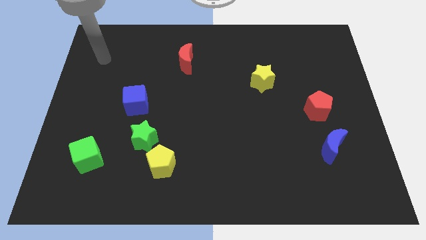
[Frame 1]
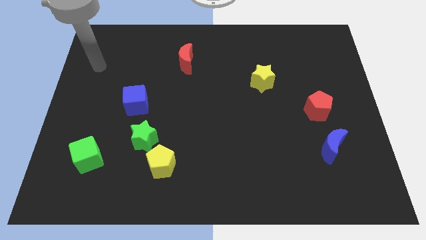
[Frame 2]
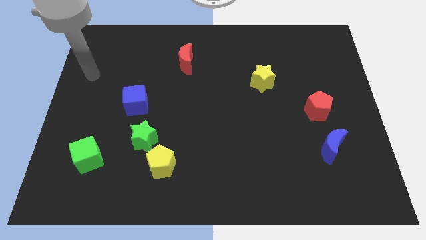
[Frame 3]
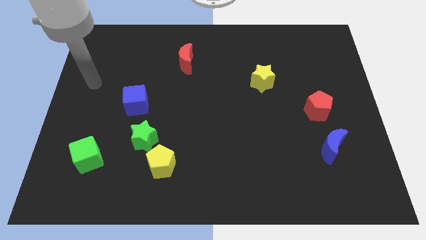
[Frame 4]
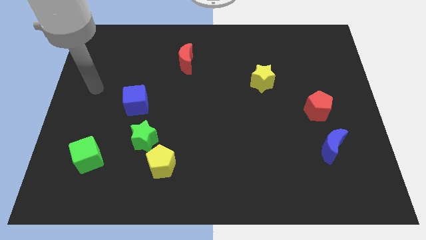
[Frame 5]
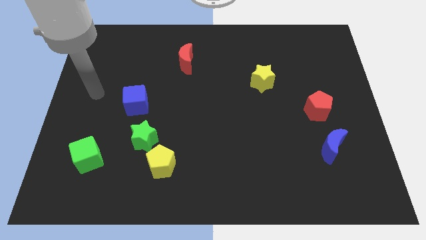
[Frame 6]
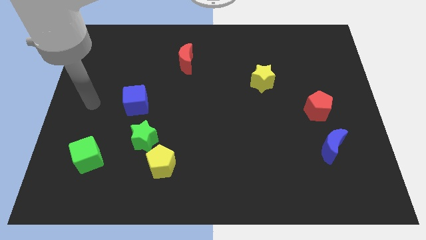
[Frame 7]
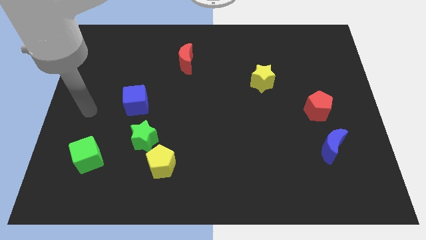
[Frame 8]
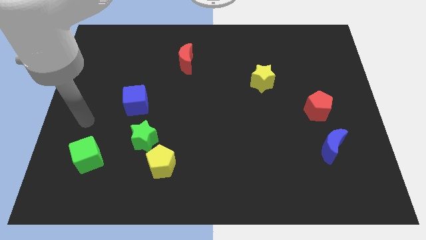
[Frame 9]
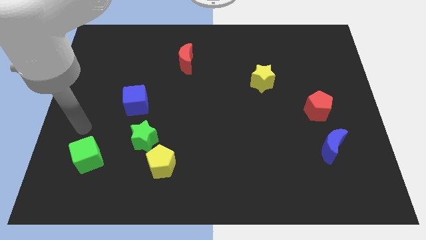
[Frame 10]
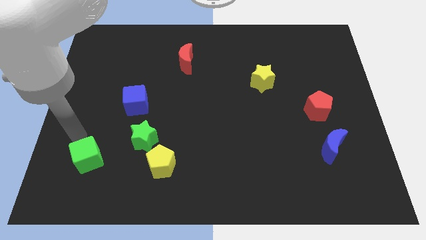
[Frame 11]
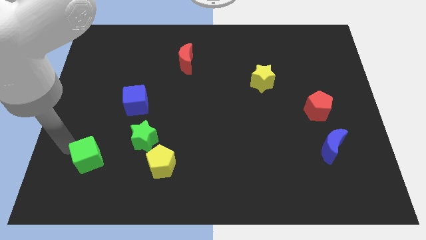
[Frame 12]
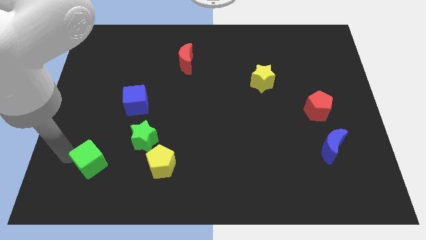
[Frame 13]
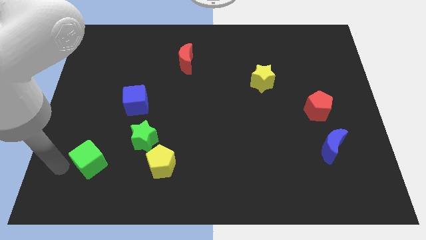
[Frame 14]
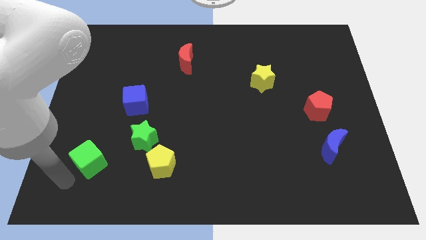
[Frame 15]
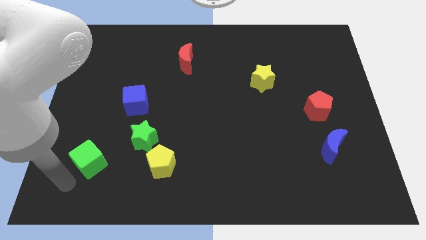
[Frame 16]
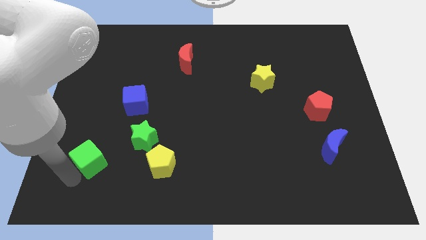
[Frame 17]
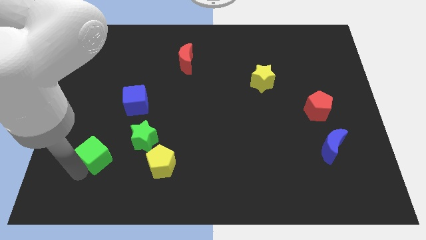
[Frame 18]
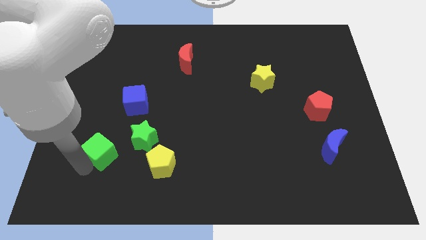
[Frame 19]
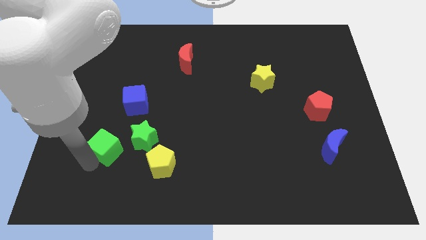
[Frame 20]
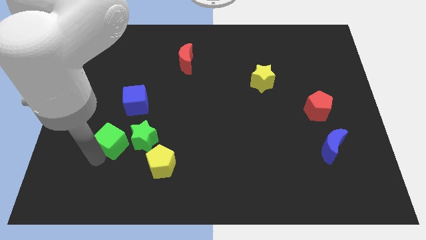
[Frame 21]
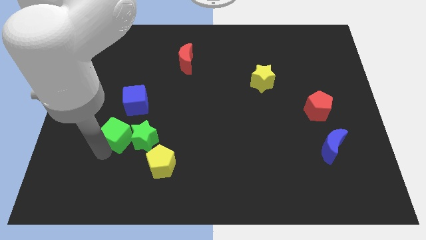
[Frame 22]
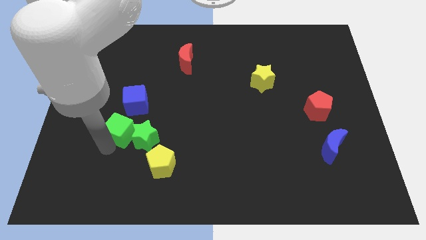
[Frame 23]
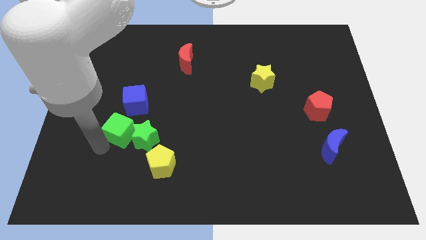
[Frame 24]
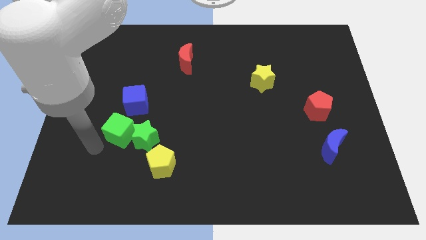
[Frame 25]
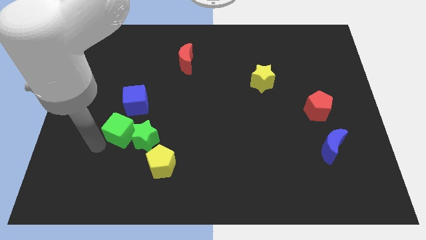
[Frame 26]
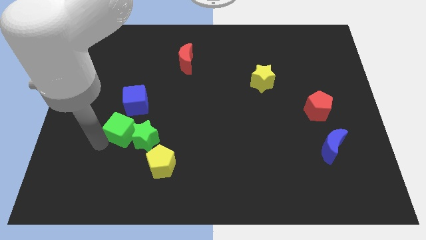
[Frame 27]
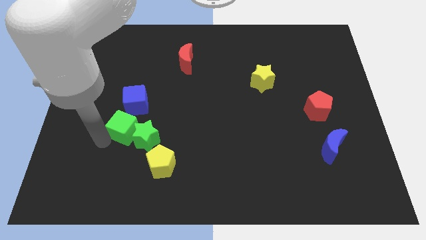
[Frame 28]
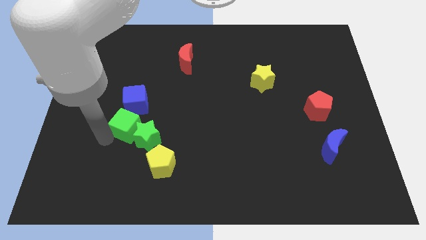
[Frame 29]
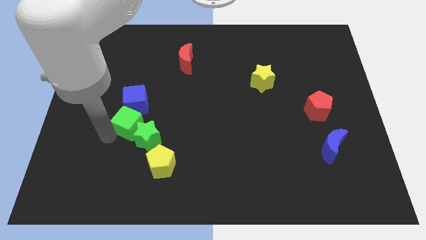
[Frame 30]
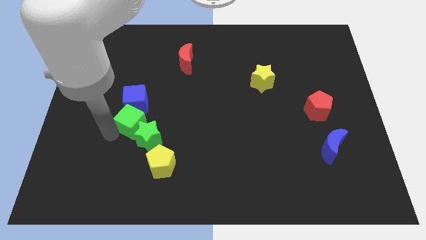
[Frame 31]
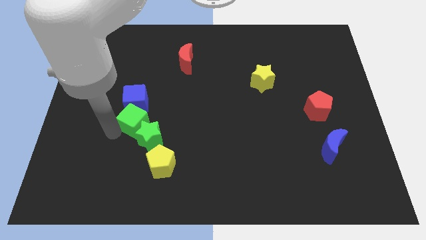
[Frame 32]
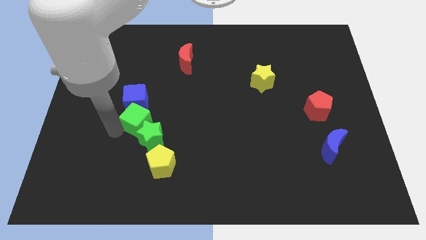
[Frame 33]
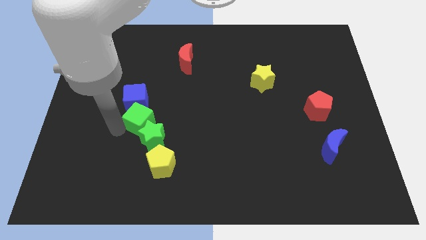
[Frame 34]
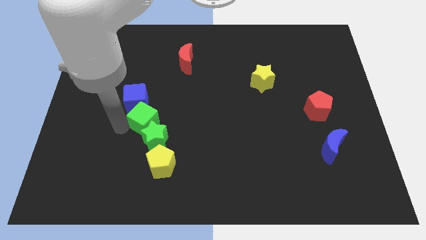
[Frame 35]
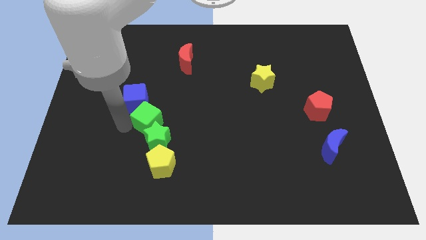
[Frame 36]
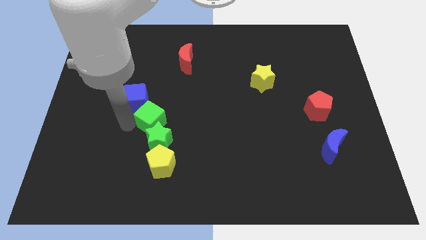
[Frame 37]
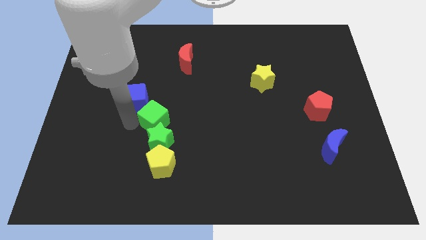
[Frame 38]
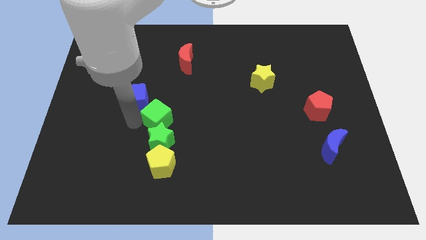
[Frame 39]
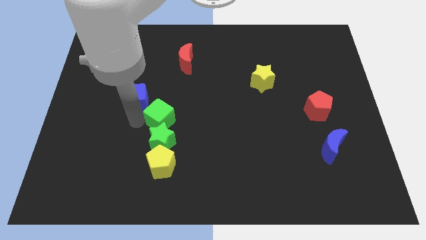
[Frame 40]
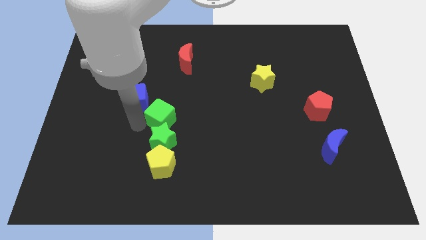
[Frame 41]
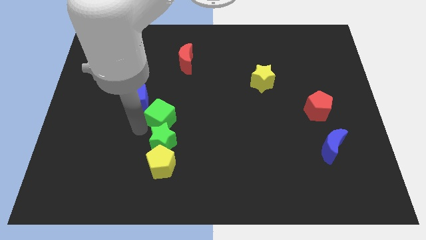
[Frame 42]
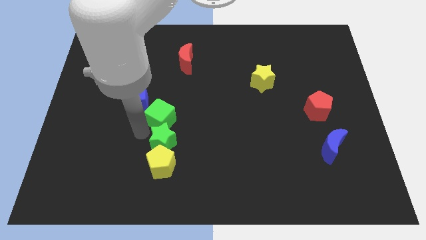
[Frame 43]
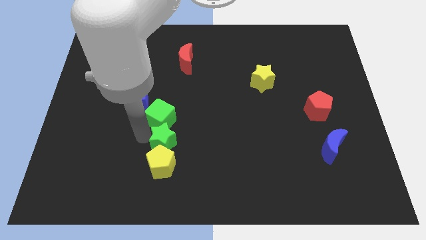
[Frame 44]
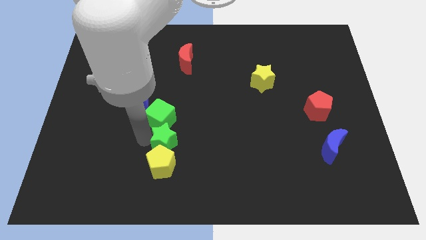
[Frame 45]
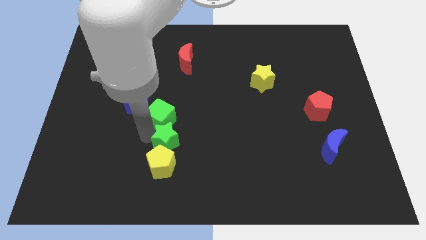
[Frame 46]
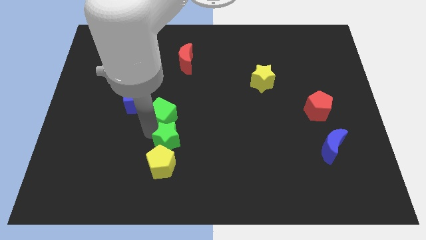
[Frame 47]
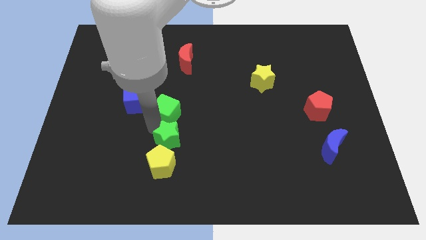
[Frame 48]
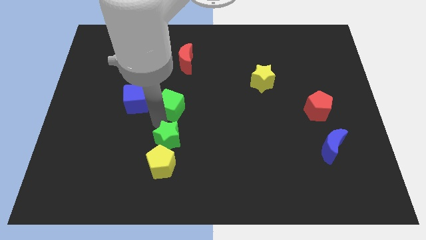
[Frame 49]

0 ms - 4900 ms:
slide the green cube diagonally up and right

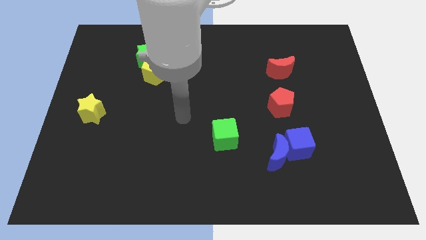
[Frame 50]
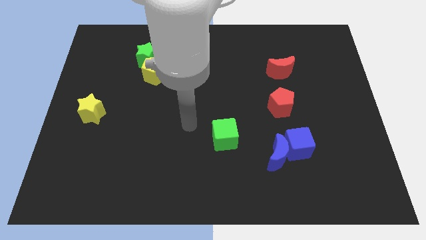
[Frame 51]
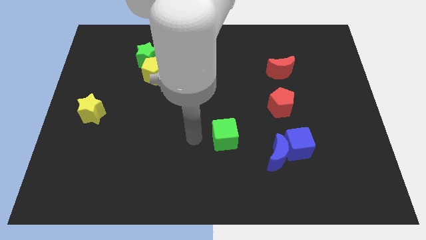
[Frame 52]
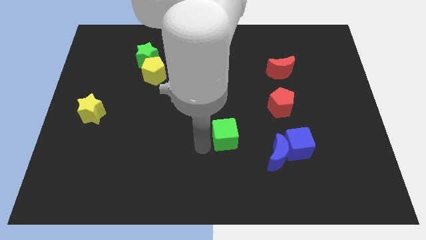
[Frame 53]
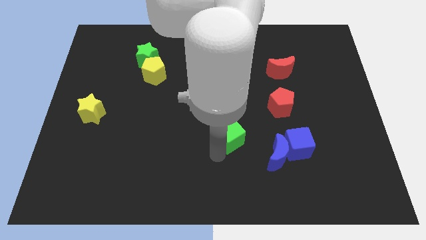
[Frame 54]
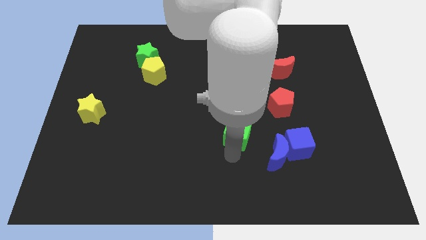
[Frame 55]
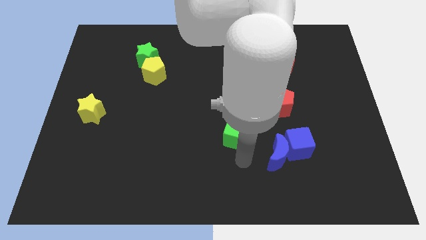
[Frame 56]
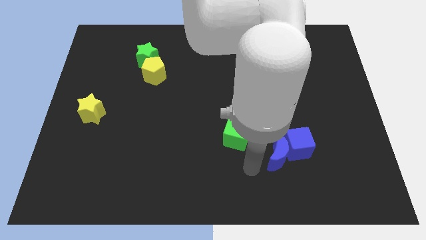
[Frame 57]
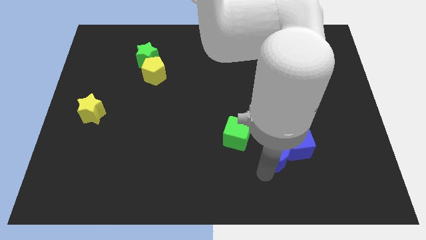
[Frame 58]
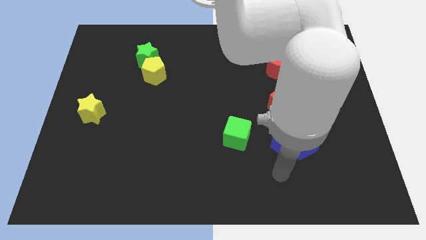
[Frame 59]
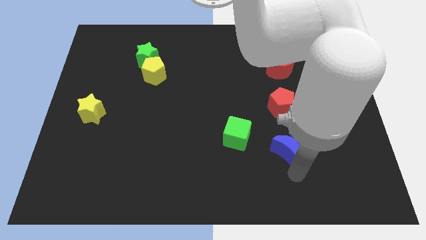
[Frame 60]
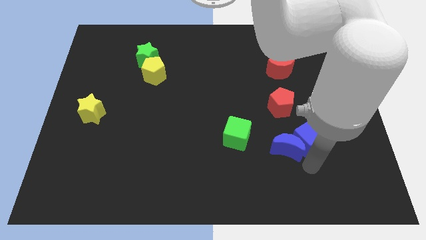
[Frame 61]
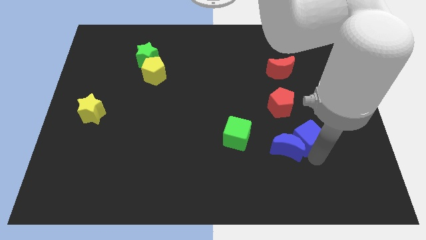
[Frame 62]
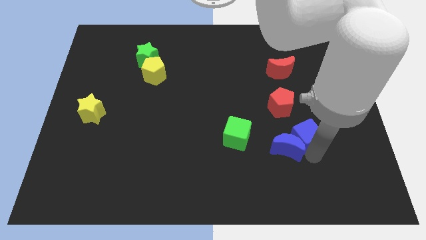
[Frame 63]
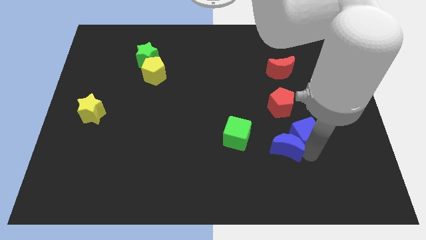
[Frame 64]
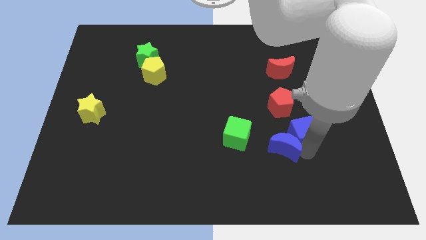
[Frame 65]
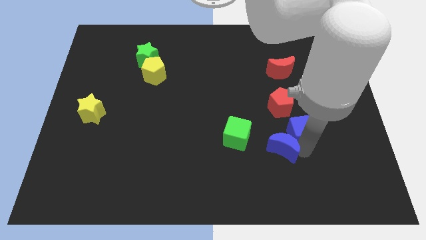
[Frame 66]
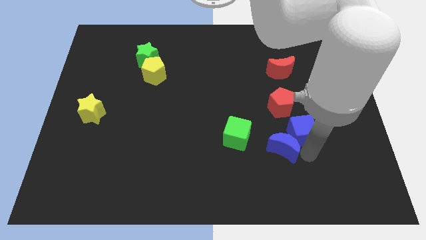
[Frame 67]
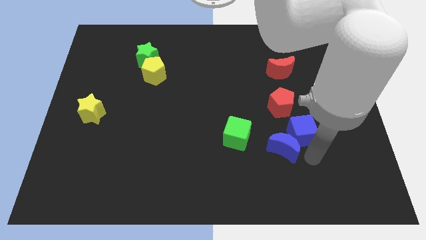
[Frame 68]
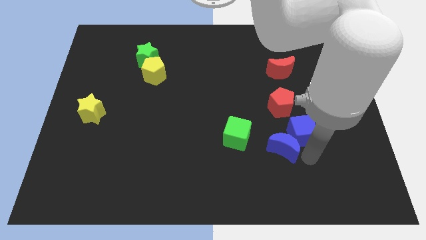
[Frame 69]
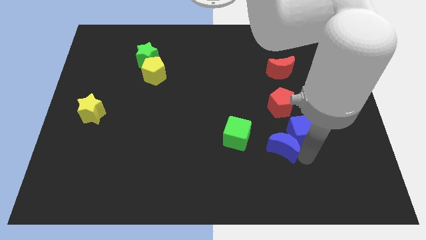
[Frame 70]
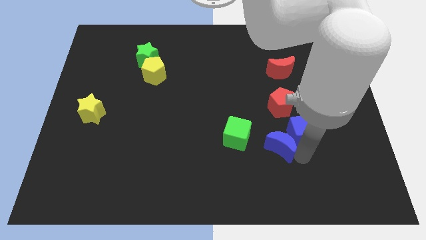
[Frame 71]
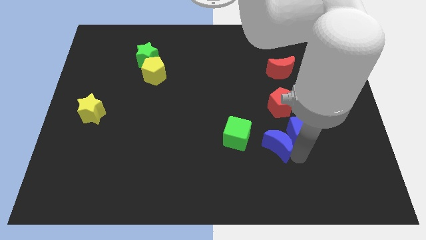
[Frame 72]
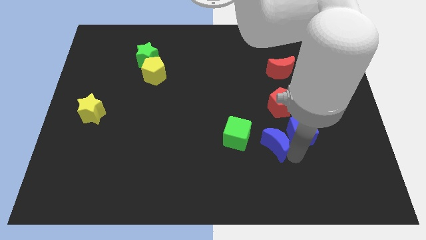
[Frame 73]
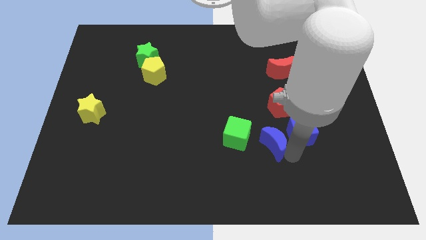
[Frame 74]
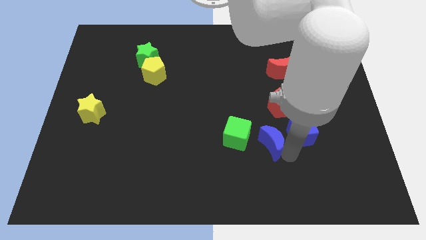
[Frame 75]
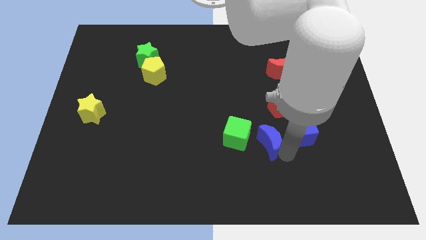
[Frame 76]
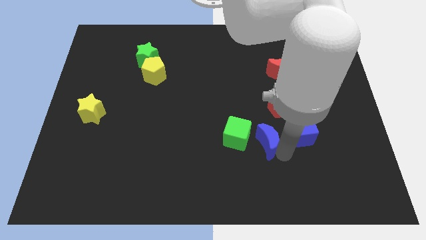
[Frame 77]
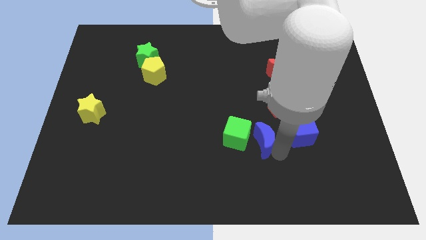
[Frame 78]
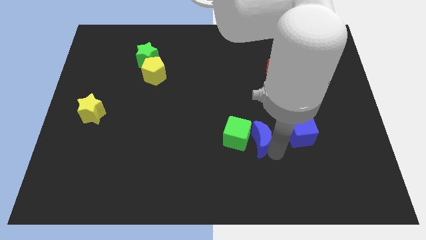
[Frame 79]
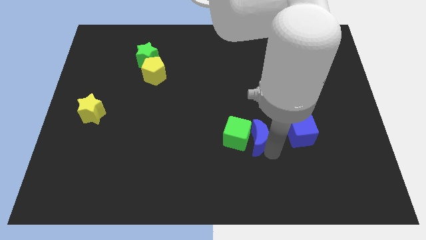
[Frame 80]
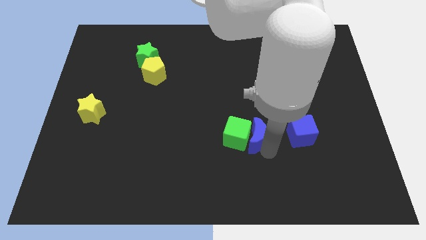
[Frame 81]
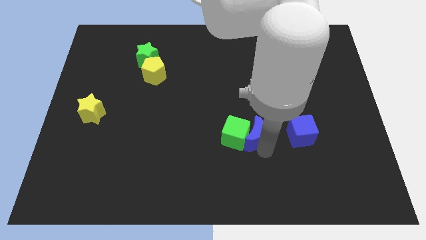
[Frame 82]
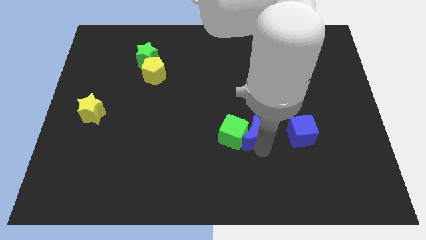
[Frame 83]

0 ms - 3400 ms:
push the blue moon a little bit up and to the left diagonally
